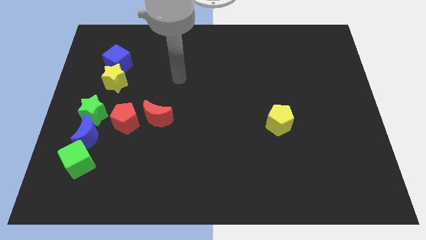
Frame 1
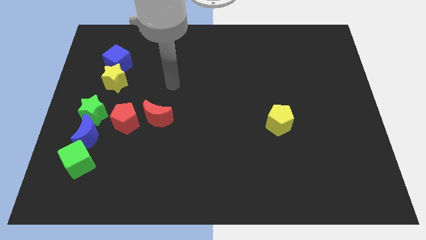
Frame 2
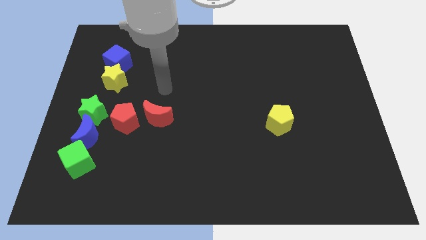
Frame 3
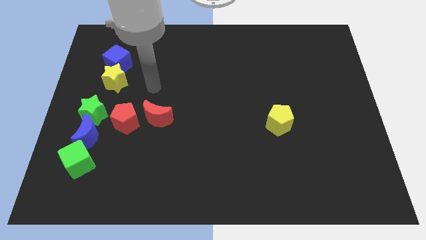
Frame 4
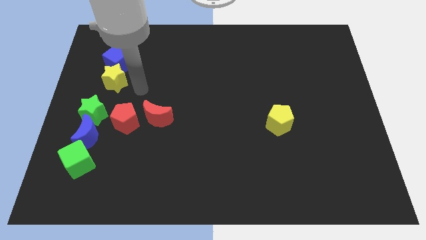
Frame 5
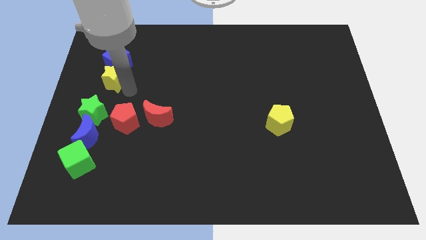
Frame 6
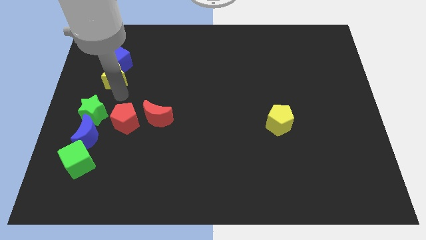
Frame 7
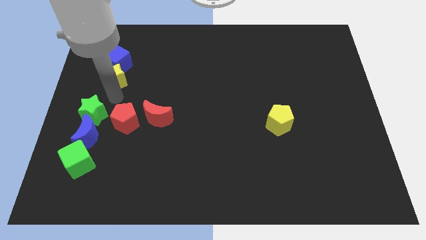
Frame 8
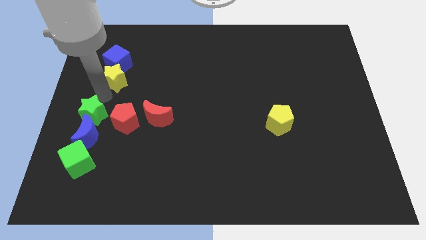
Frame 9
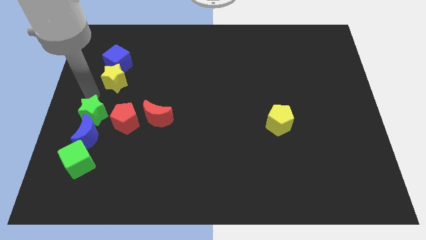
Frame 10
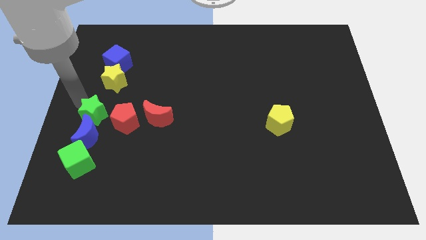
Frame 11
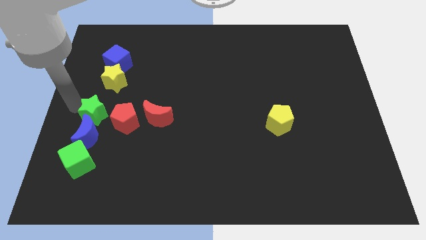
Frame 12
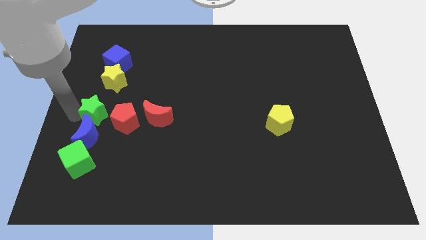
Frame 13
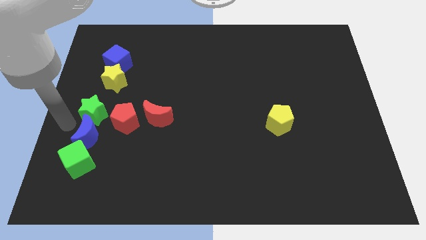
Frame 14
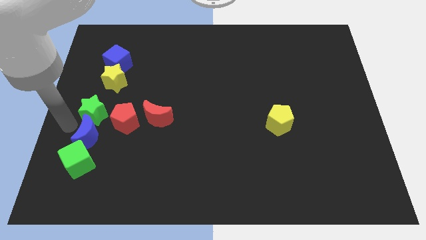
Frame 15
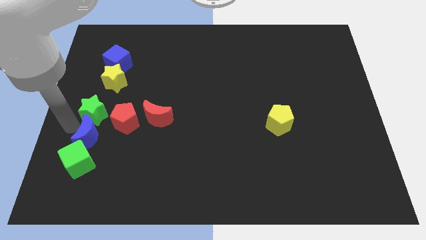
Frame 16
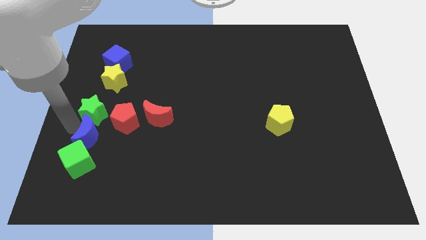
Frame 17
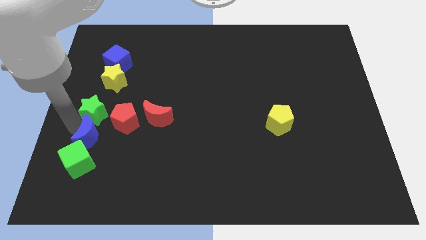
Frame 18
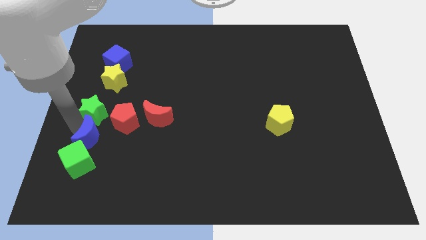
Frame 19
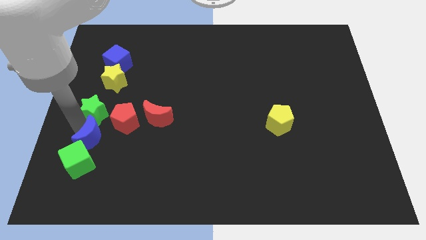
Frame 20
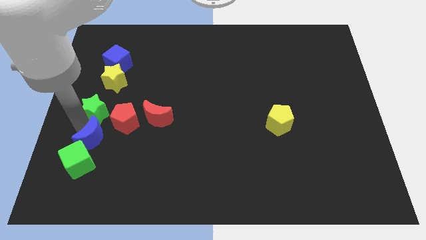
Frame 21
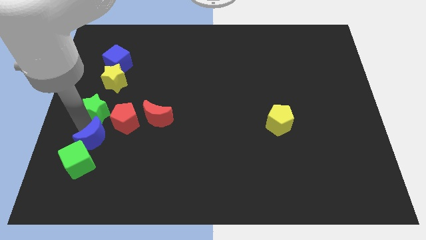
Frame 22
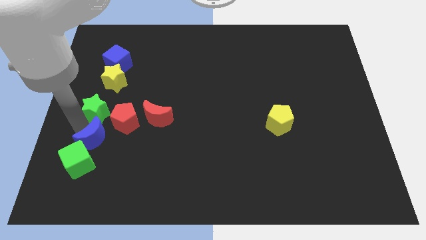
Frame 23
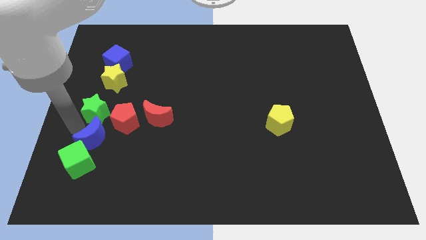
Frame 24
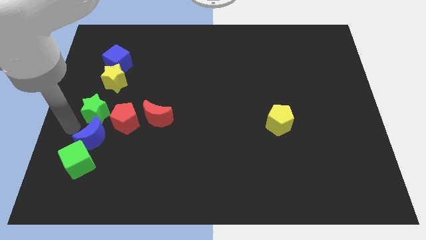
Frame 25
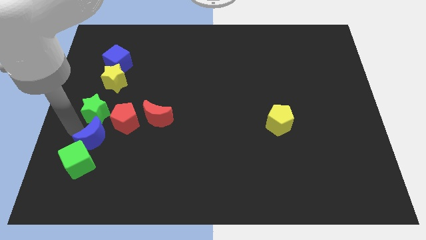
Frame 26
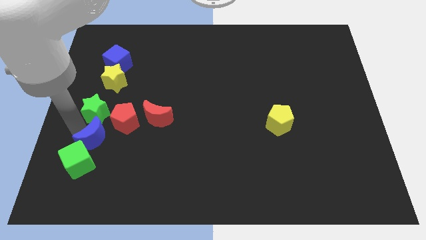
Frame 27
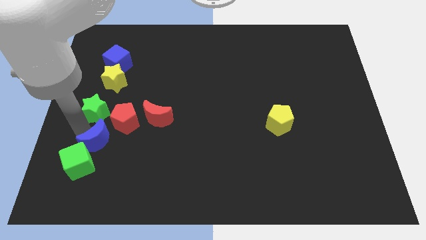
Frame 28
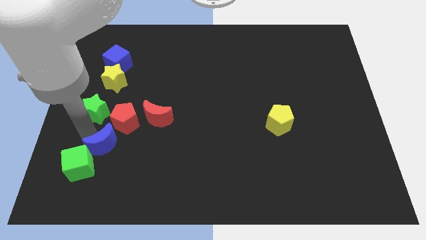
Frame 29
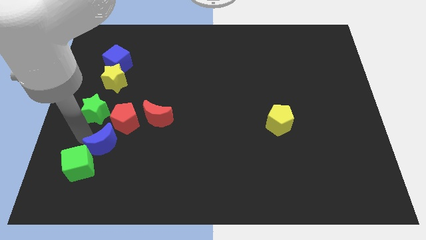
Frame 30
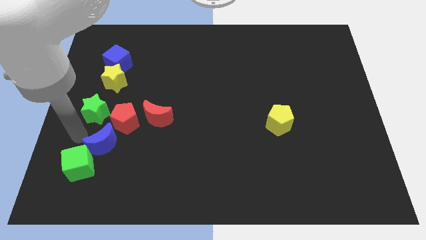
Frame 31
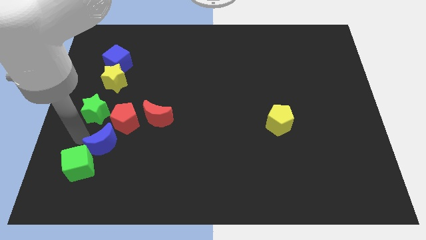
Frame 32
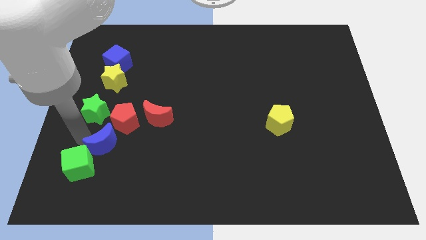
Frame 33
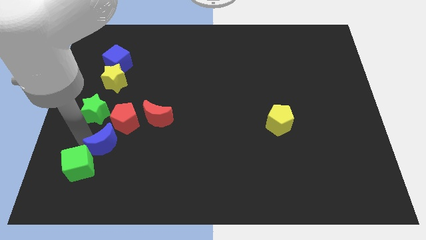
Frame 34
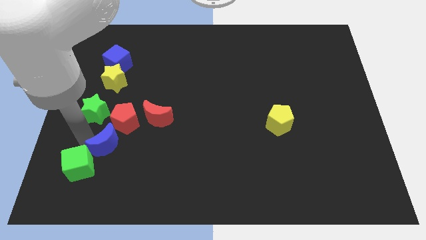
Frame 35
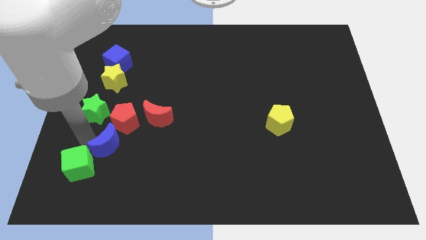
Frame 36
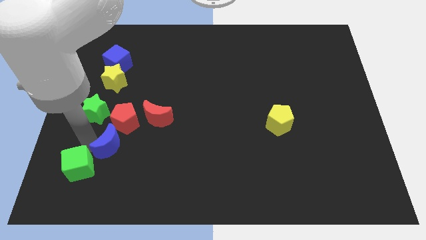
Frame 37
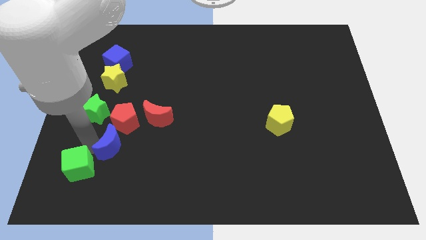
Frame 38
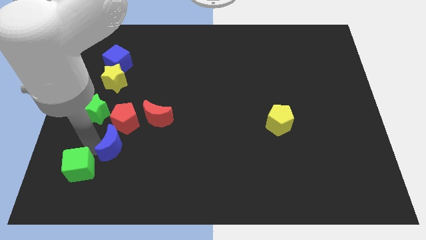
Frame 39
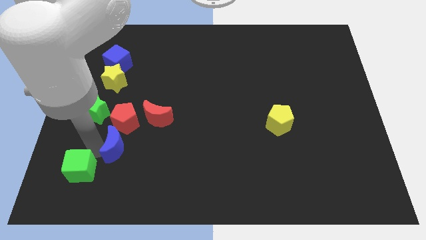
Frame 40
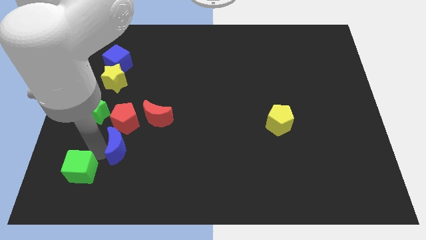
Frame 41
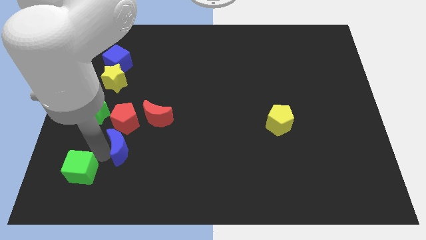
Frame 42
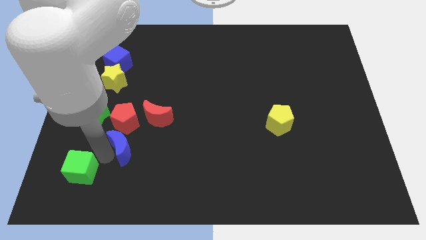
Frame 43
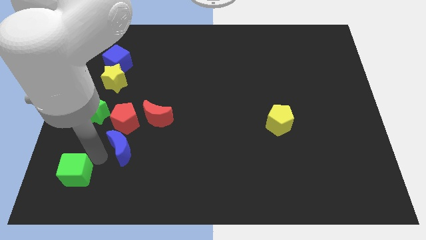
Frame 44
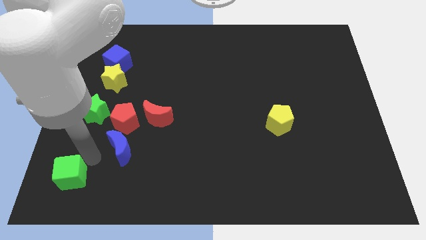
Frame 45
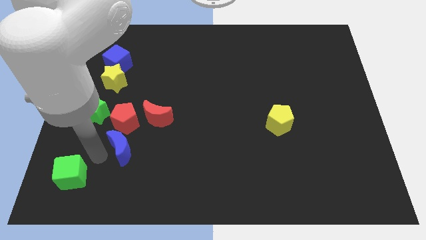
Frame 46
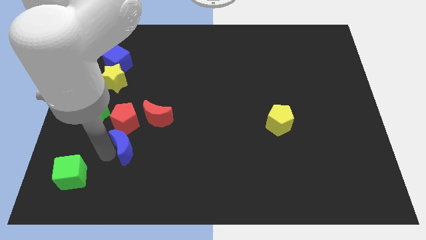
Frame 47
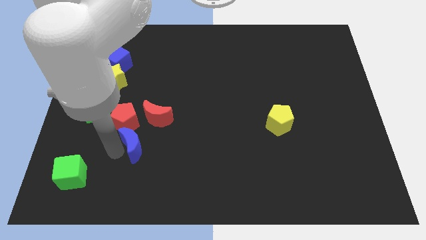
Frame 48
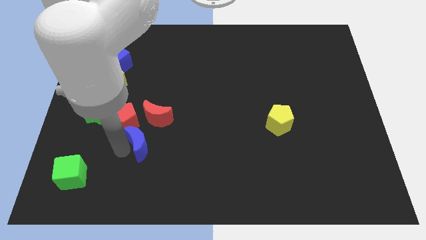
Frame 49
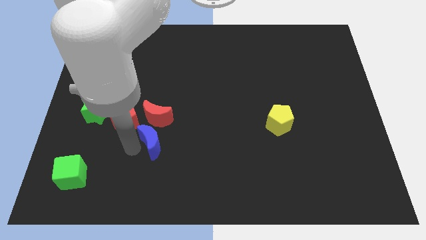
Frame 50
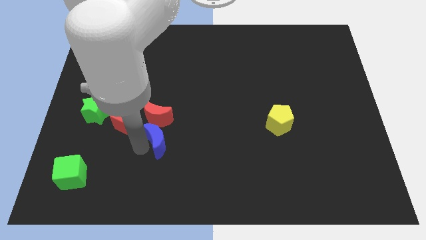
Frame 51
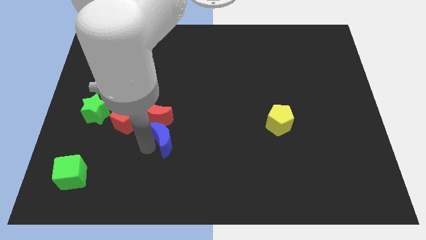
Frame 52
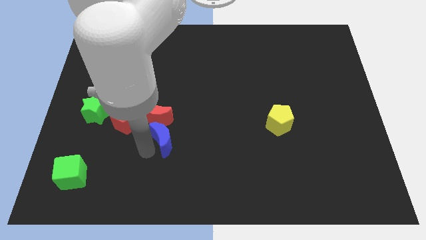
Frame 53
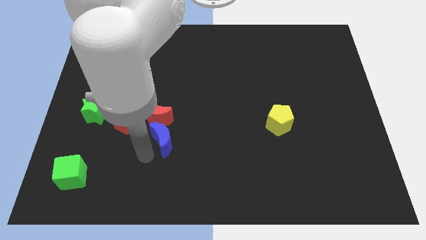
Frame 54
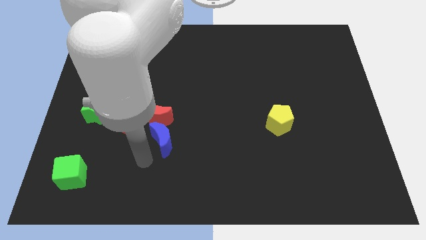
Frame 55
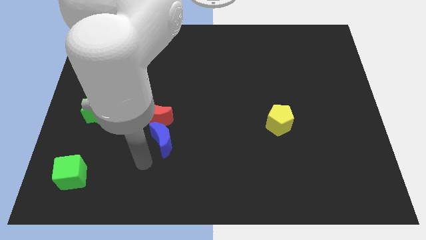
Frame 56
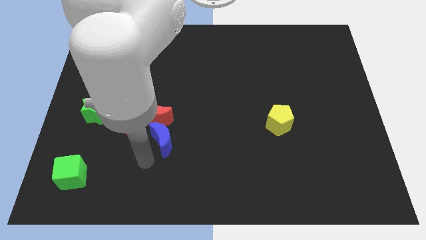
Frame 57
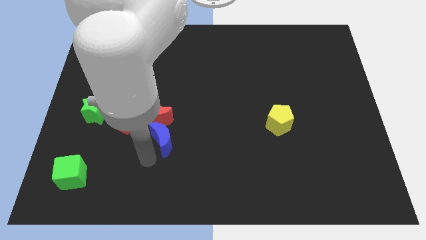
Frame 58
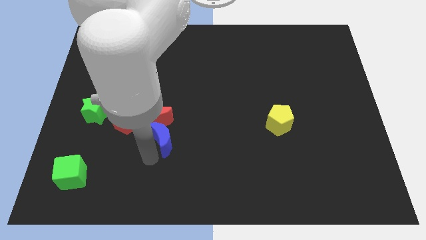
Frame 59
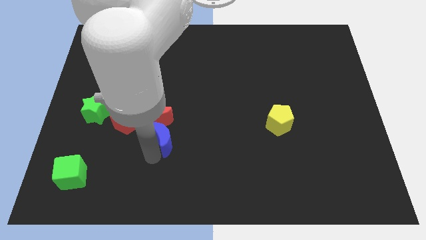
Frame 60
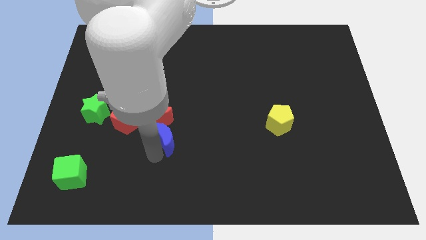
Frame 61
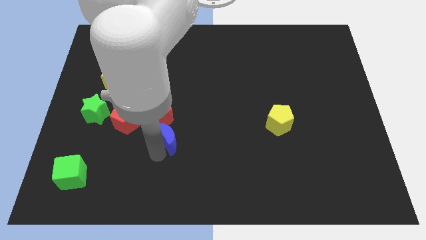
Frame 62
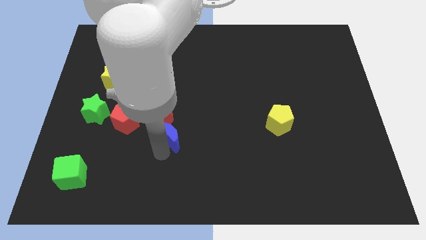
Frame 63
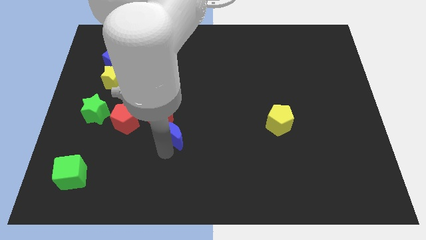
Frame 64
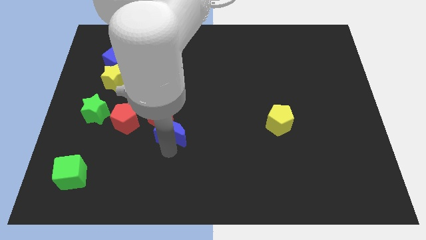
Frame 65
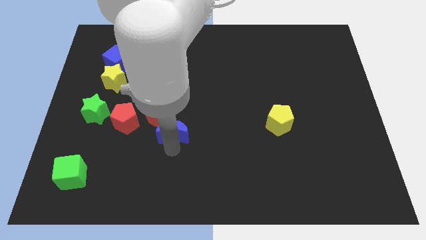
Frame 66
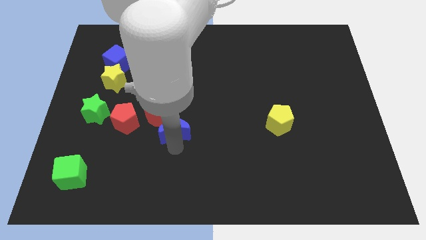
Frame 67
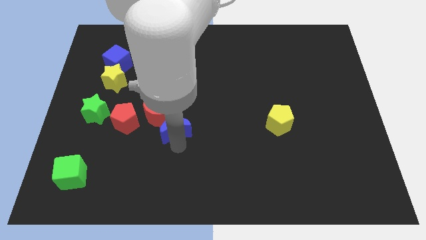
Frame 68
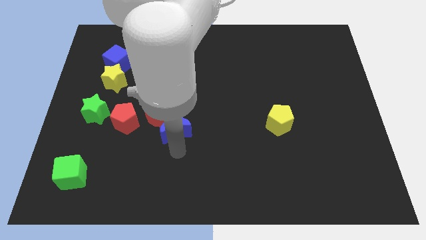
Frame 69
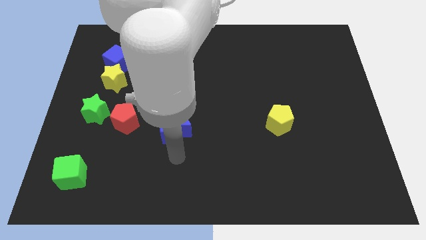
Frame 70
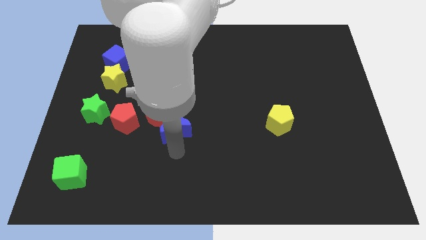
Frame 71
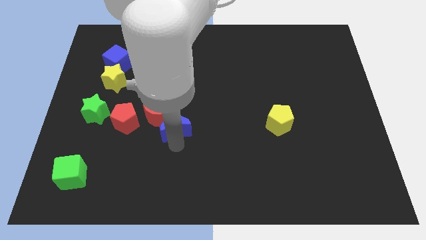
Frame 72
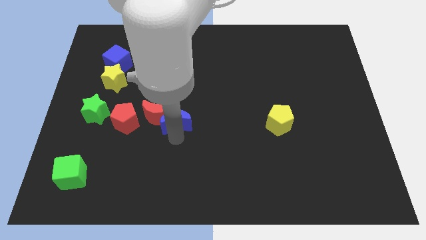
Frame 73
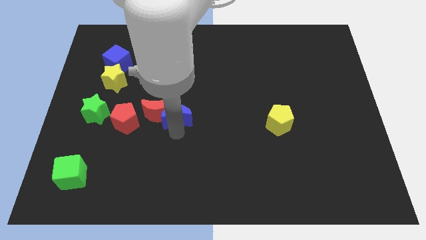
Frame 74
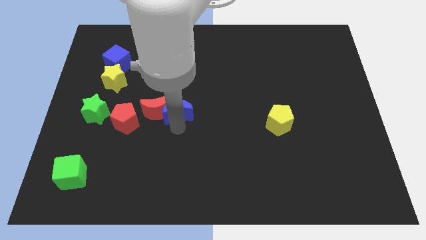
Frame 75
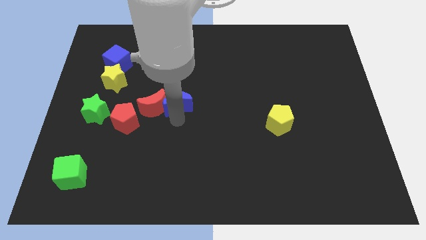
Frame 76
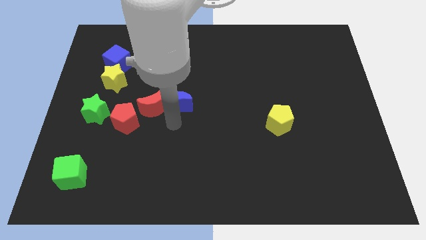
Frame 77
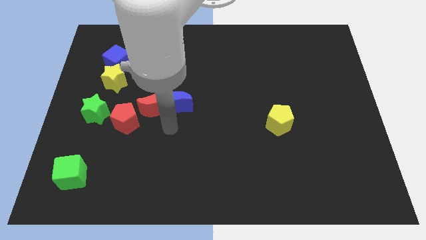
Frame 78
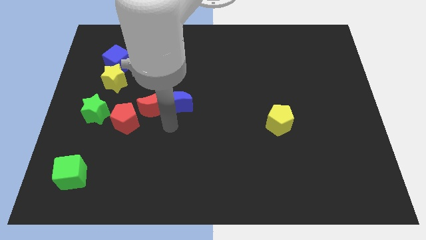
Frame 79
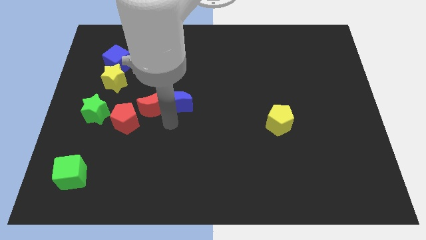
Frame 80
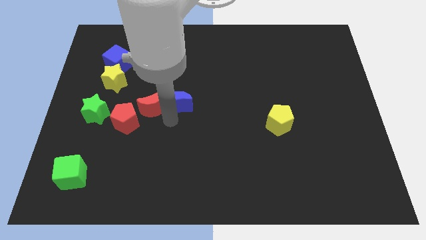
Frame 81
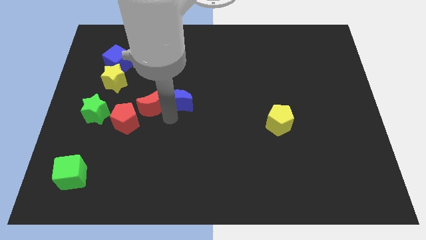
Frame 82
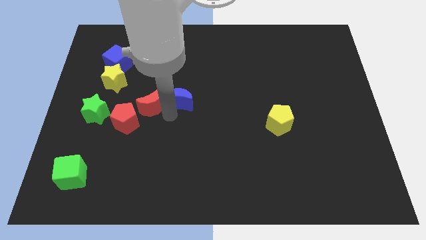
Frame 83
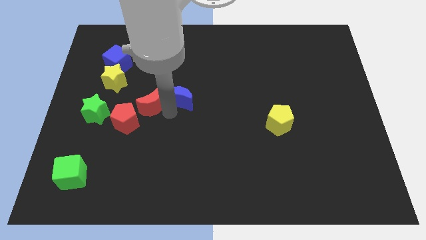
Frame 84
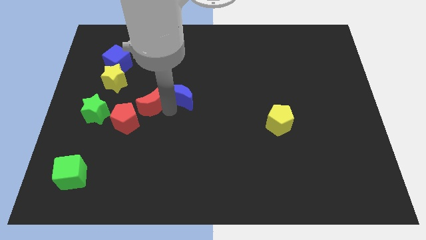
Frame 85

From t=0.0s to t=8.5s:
slide the blue moon up and right diagonally
